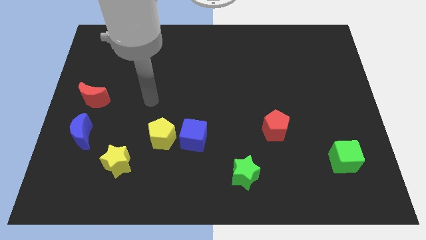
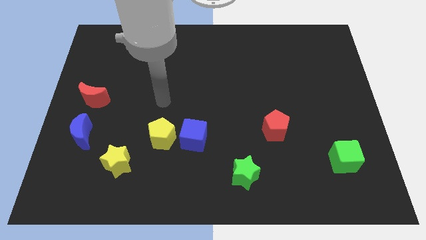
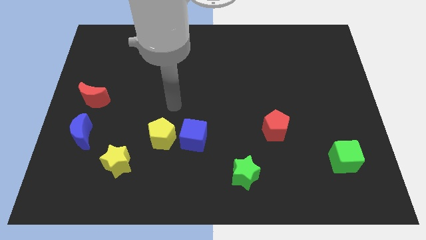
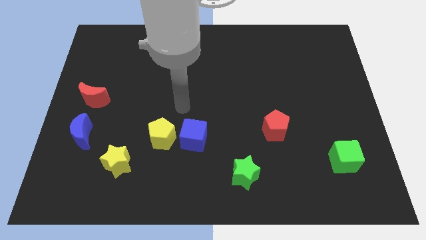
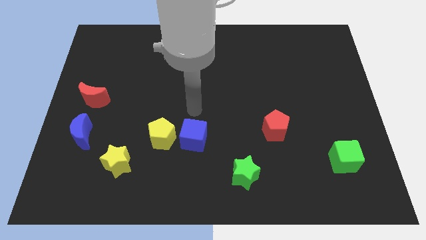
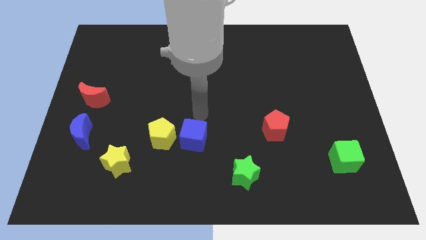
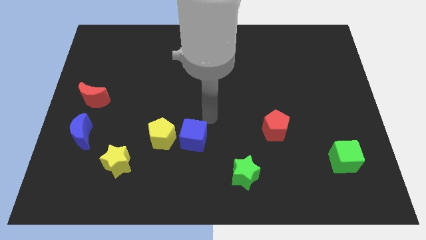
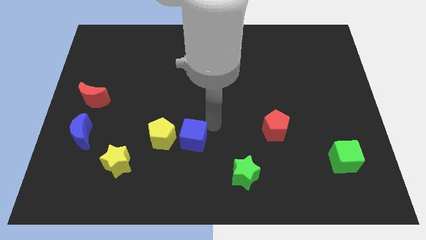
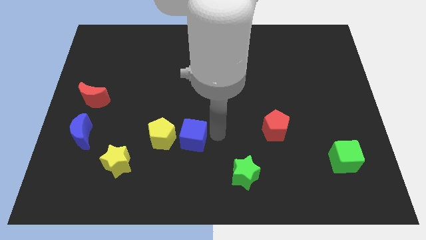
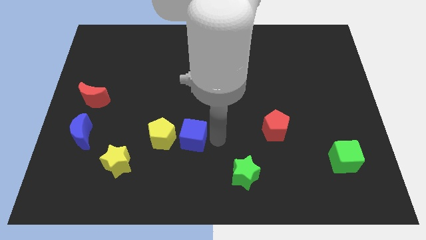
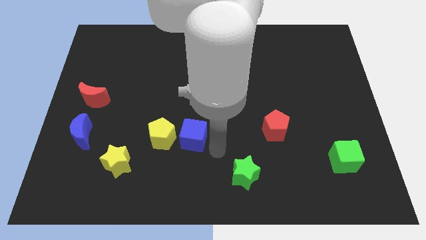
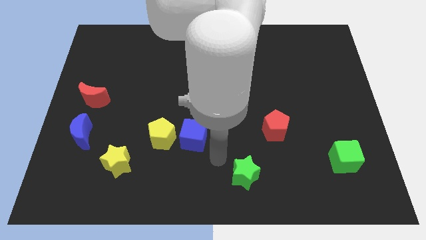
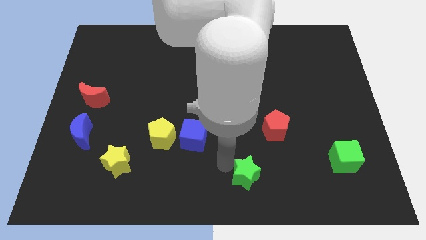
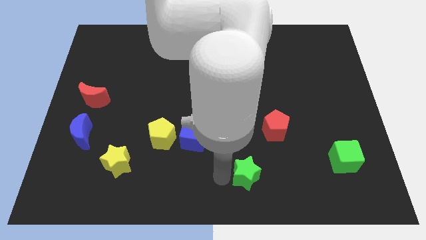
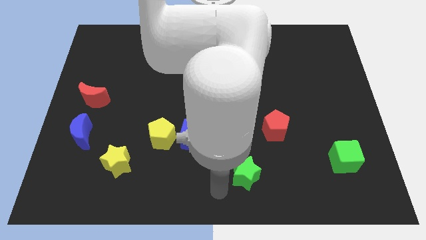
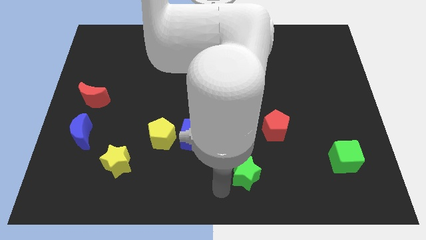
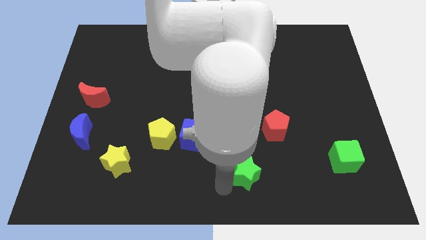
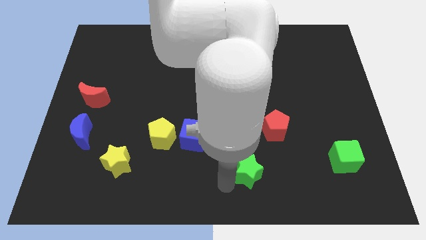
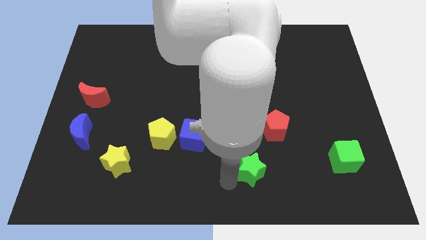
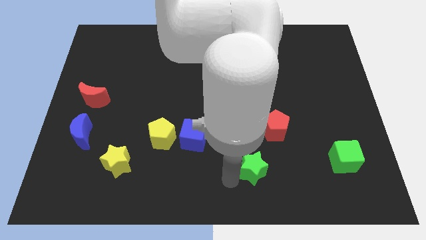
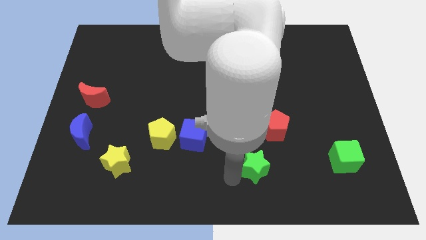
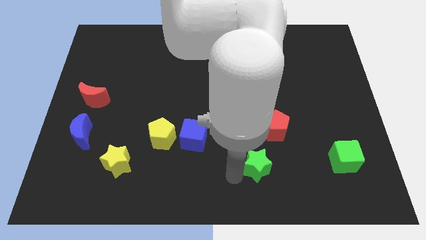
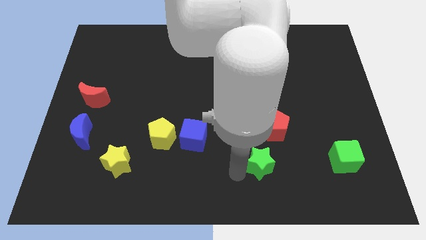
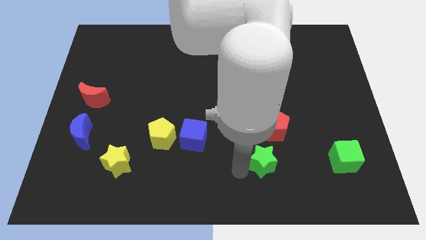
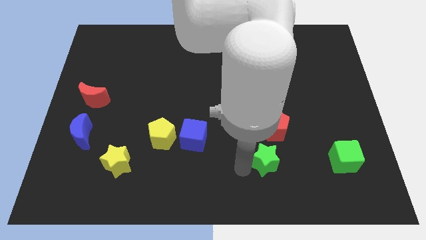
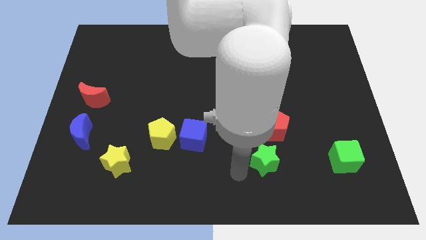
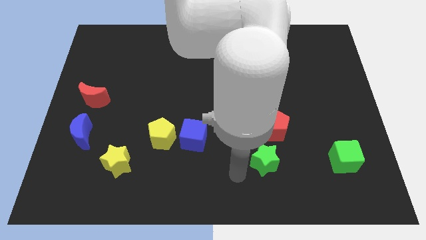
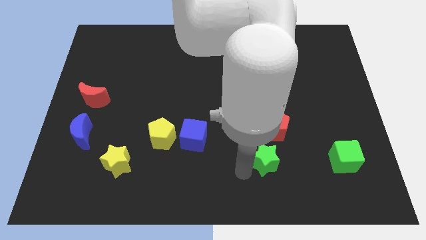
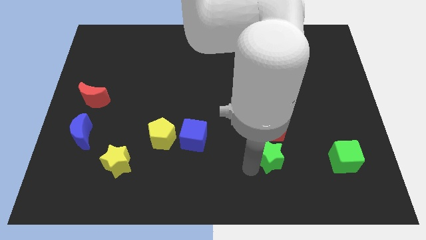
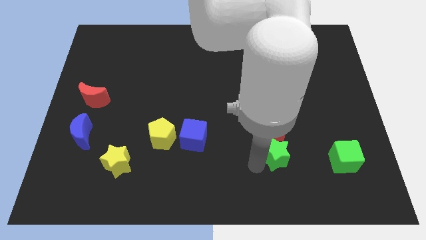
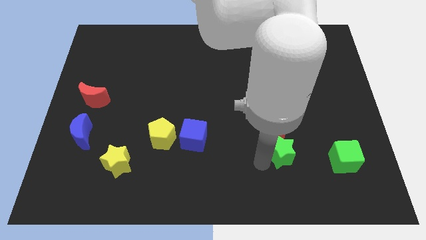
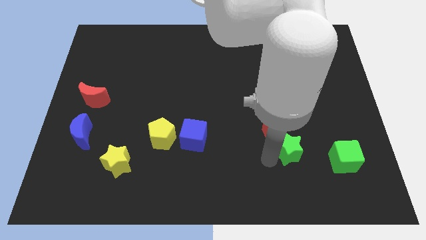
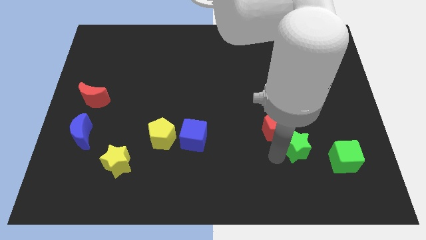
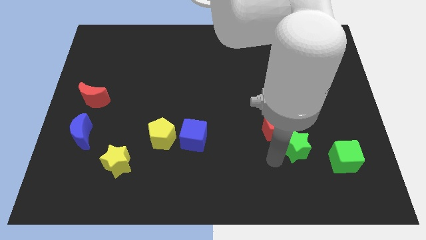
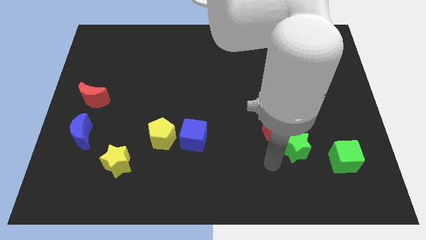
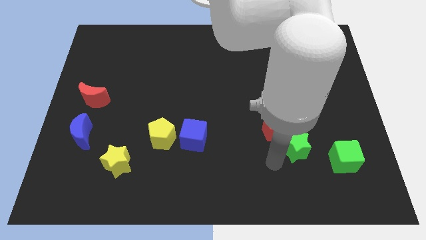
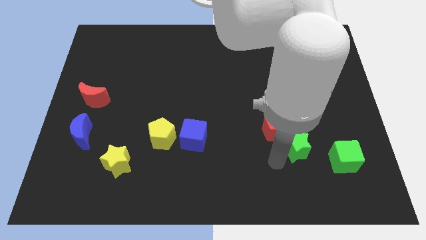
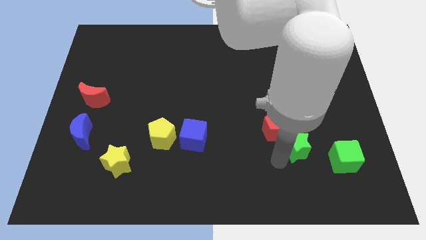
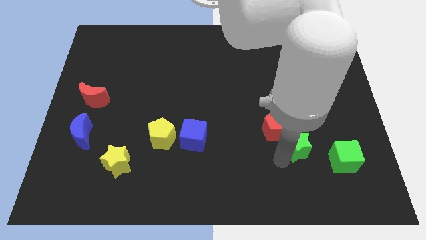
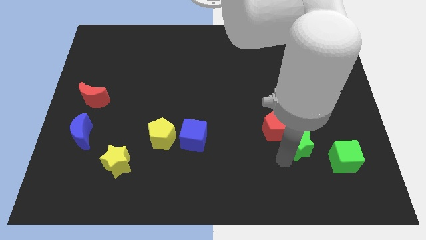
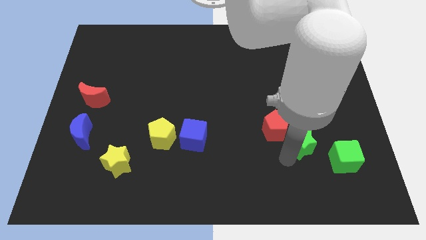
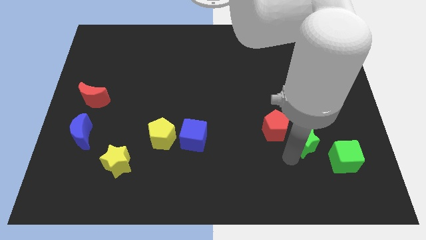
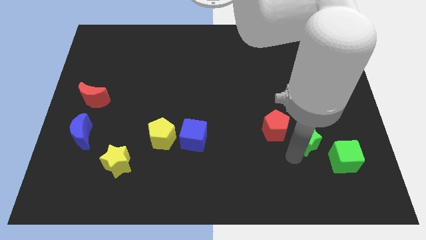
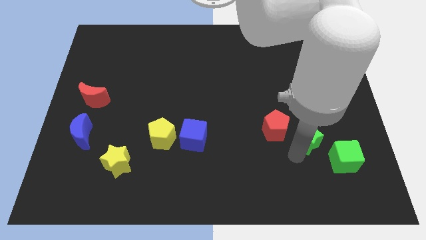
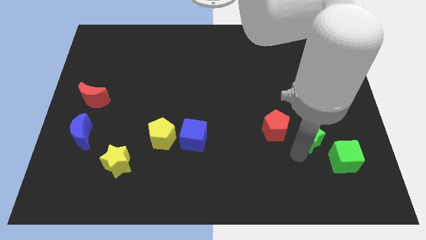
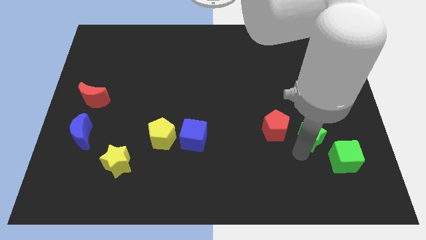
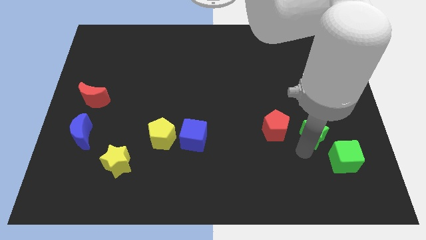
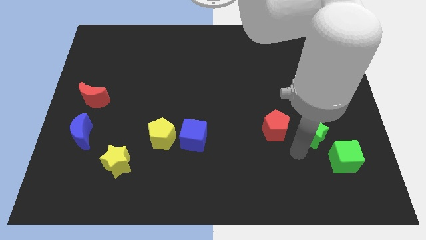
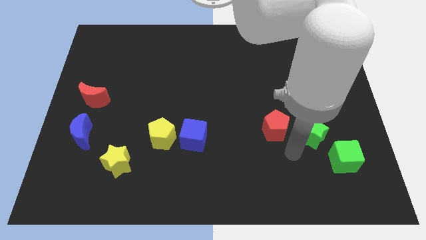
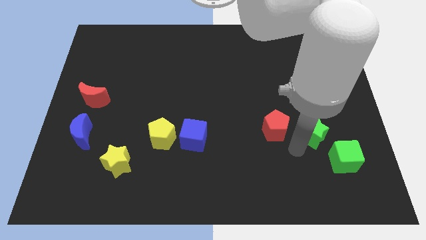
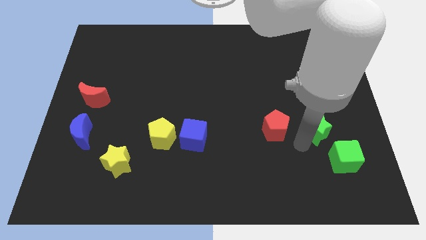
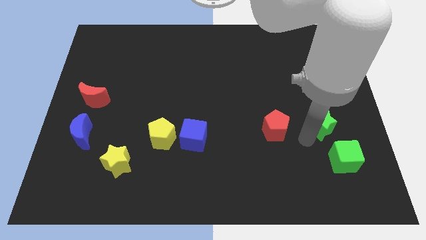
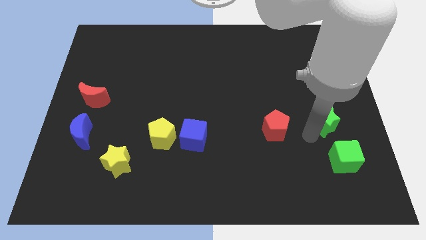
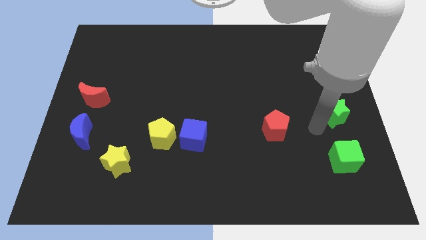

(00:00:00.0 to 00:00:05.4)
slide the green star to the center right

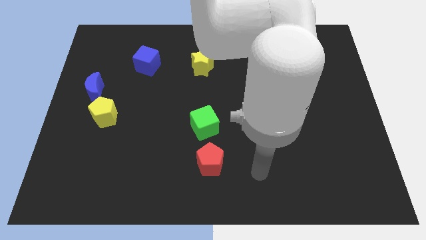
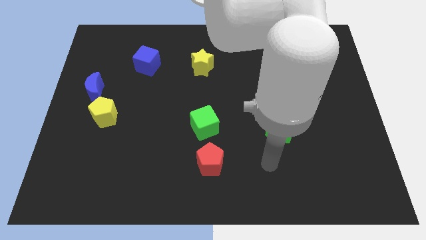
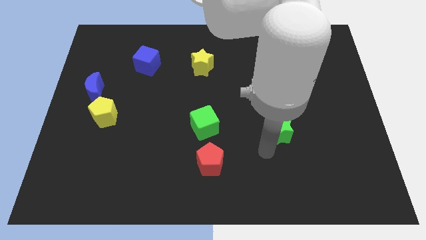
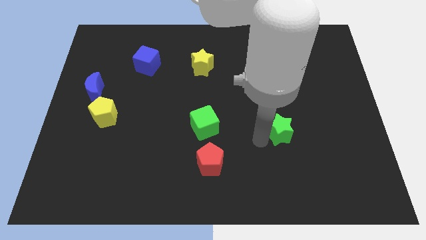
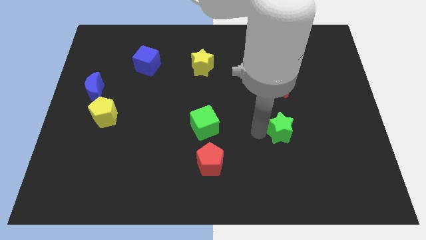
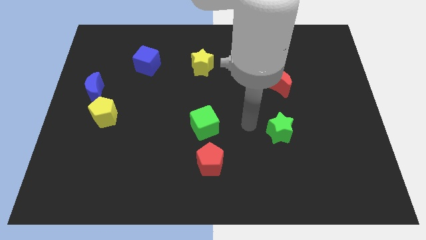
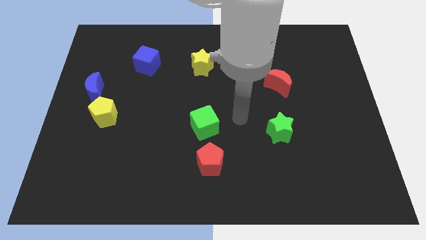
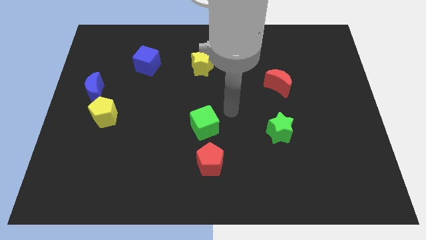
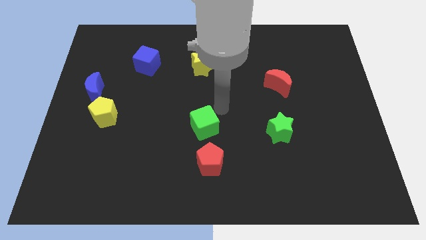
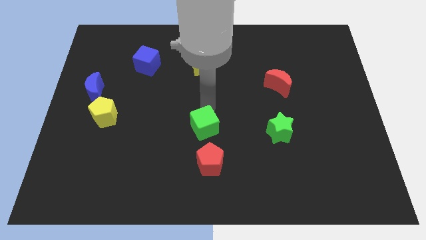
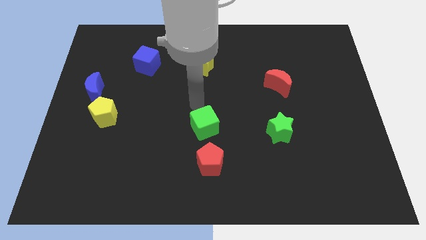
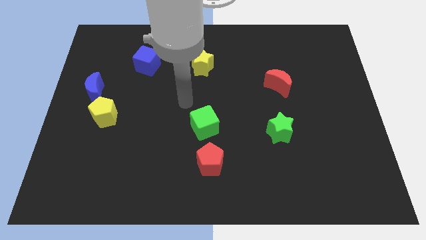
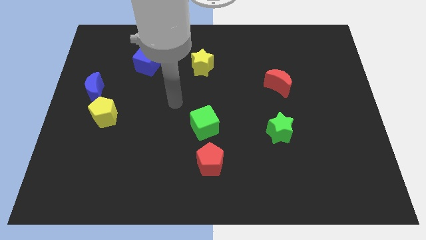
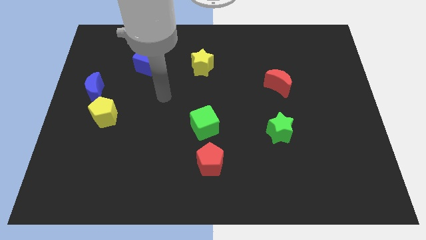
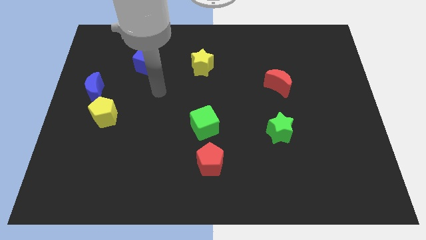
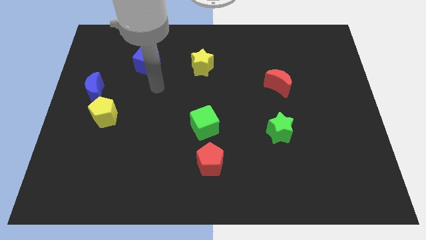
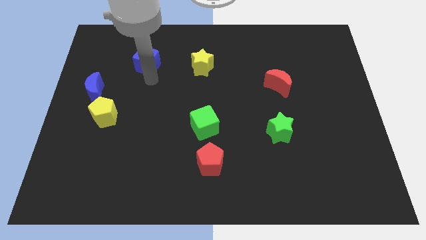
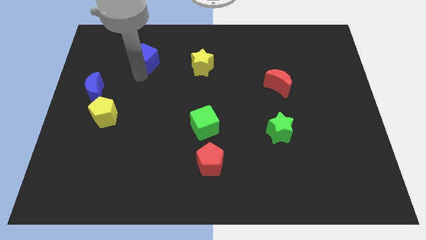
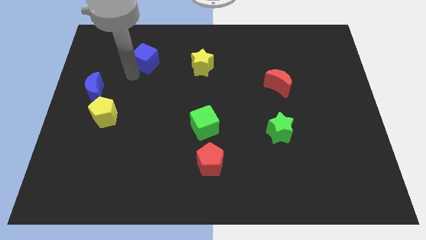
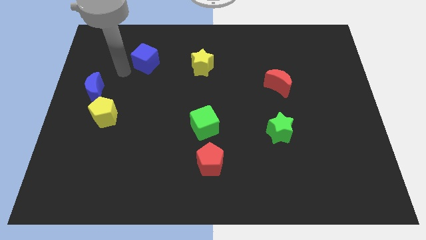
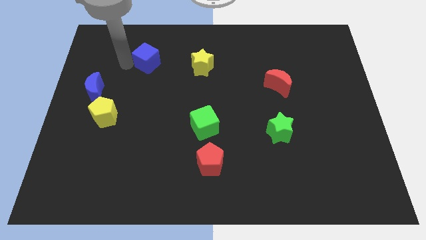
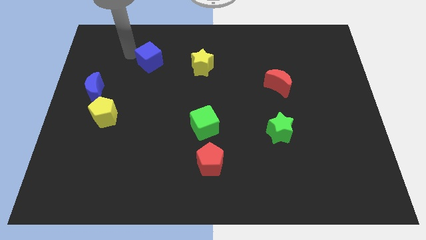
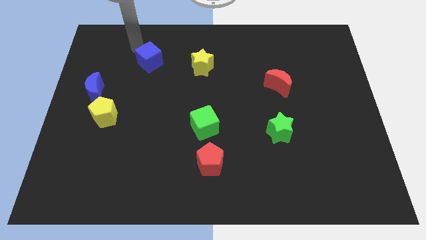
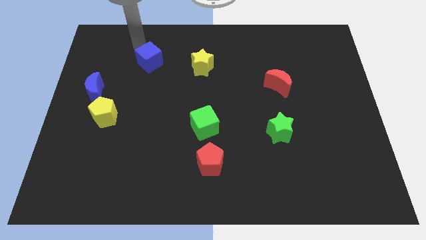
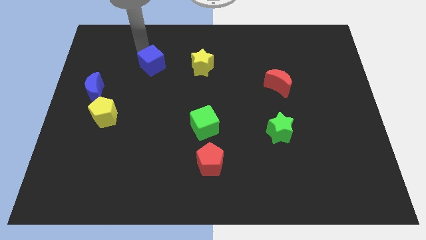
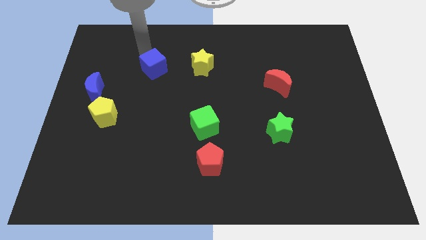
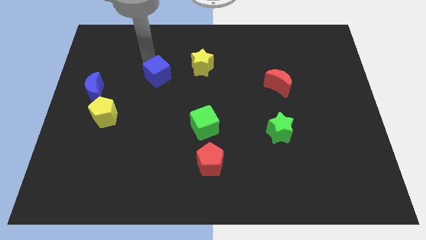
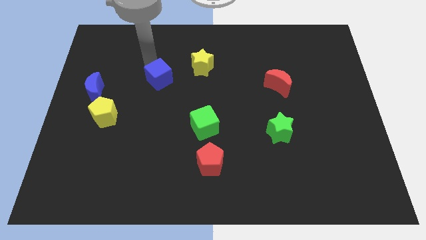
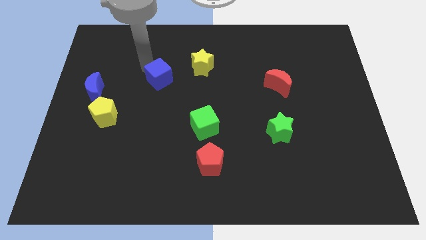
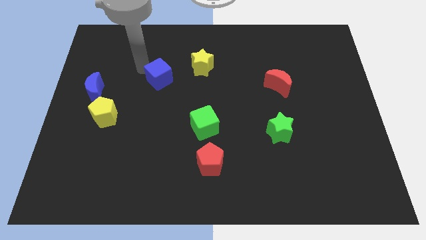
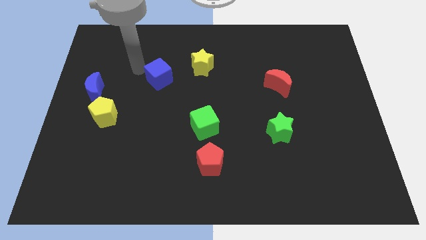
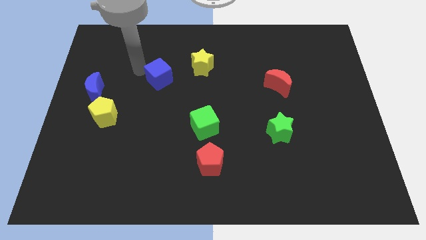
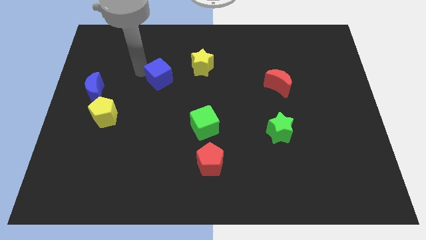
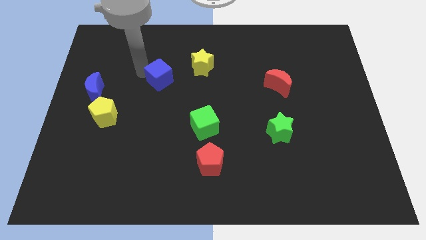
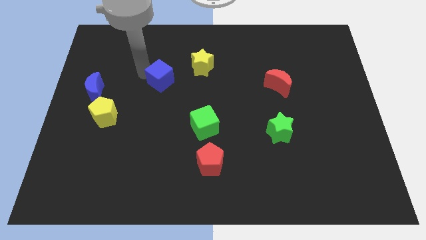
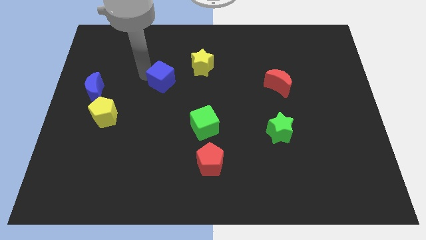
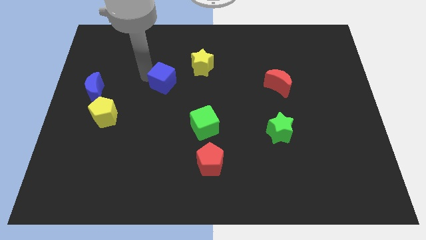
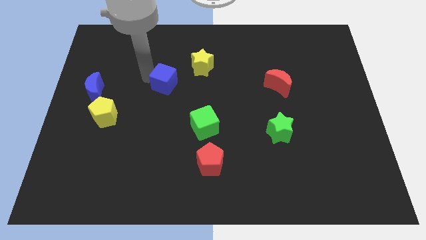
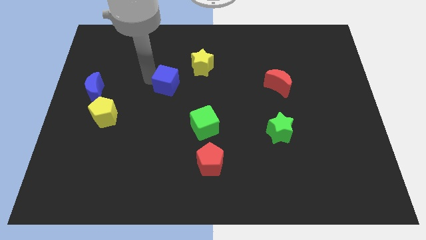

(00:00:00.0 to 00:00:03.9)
slide the blue cube to the center
